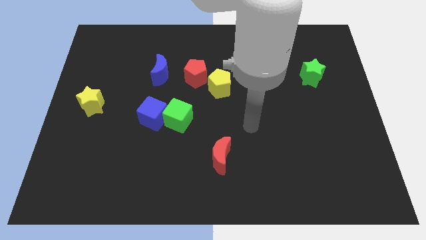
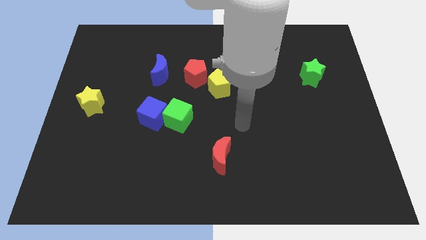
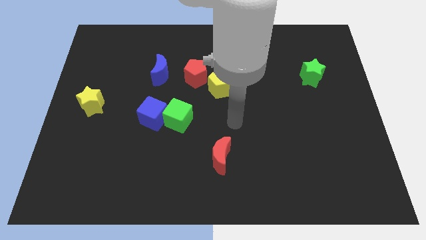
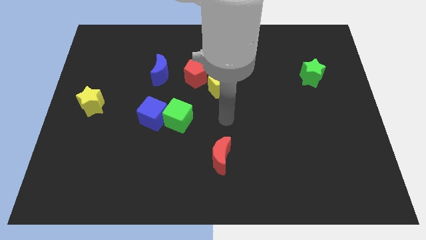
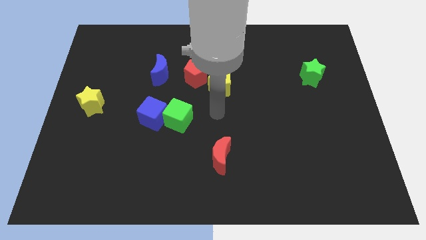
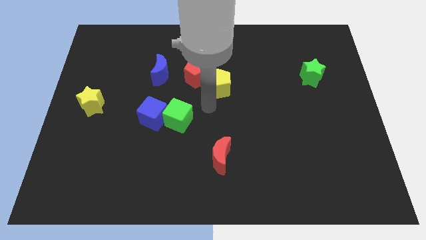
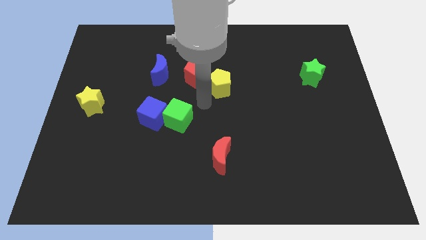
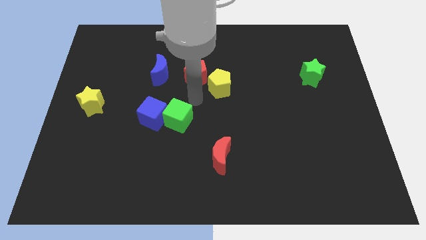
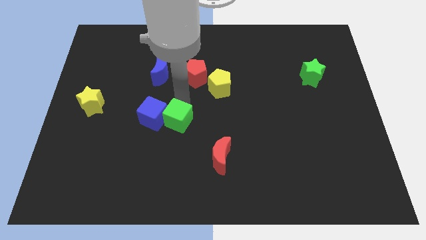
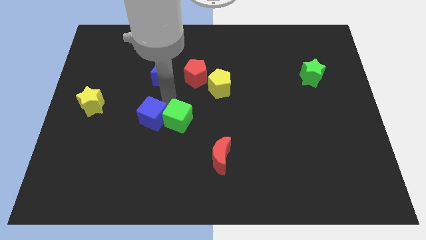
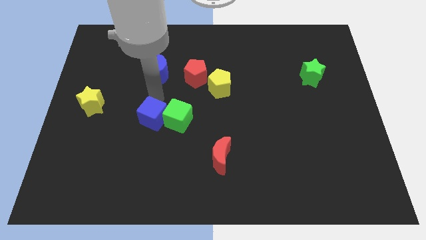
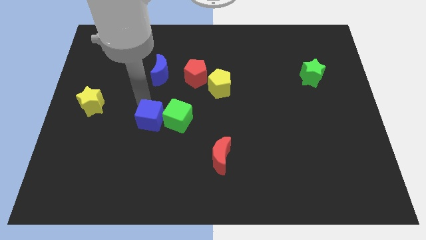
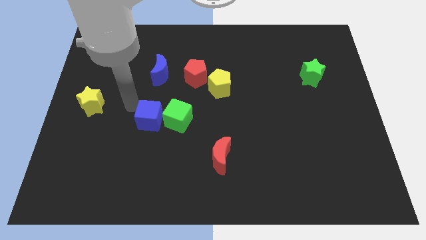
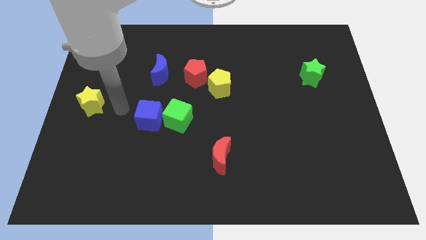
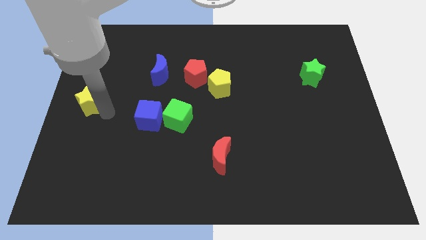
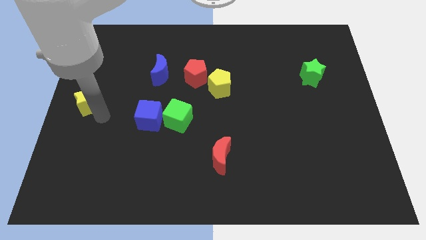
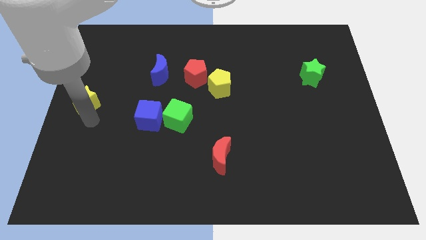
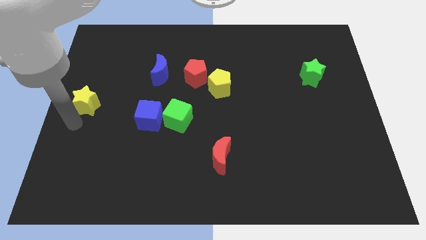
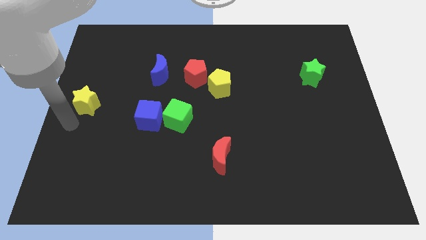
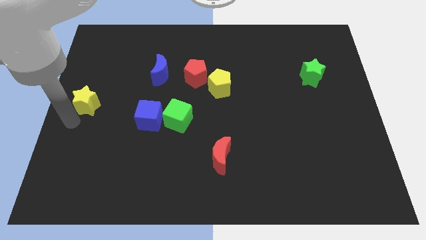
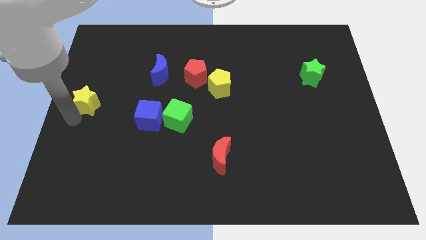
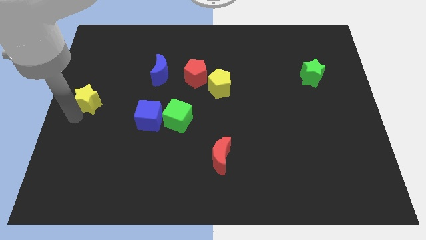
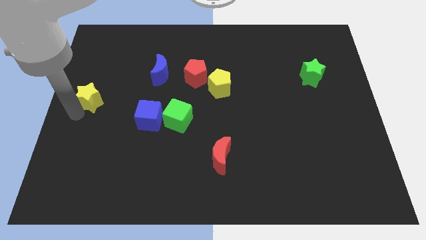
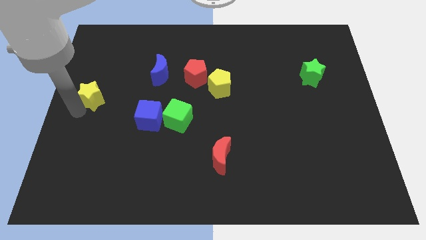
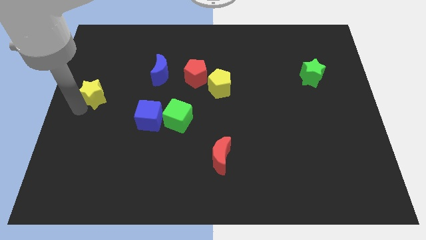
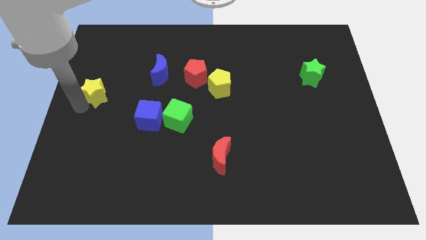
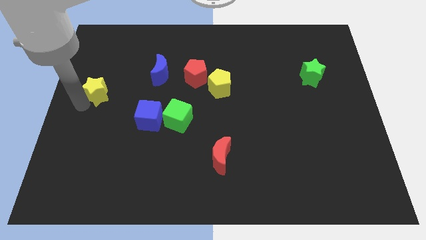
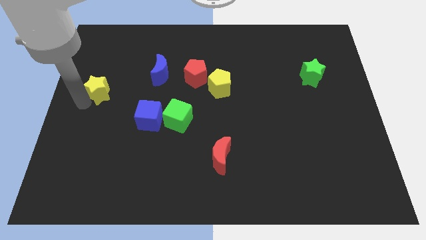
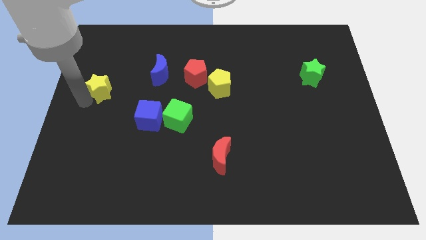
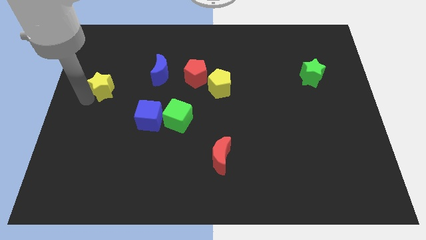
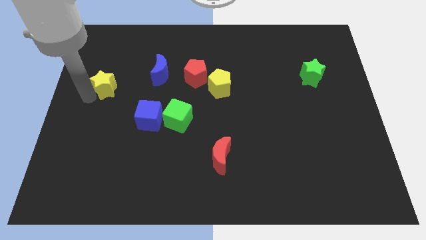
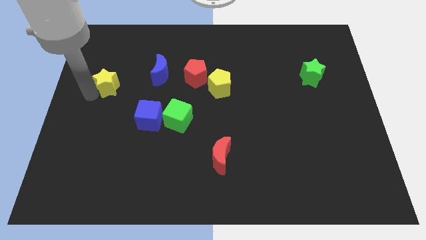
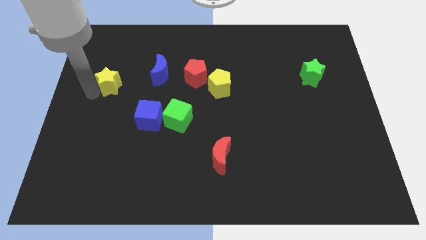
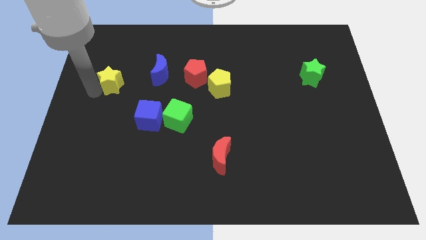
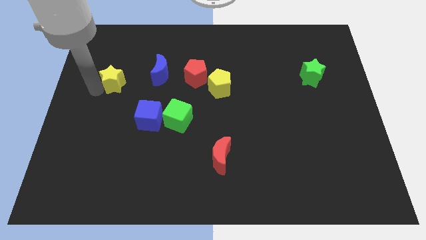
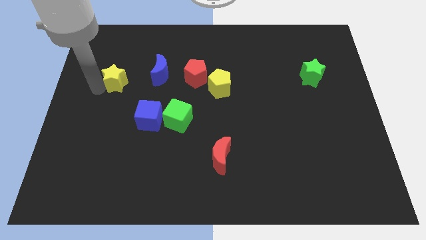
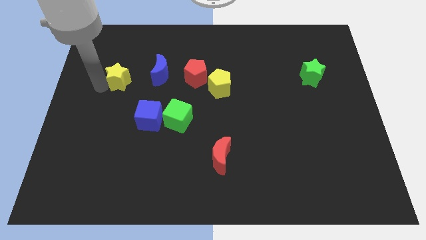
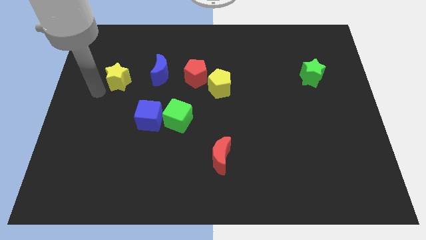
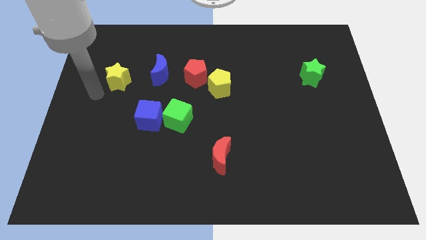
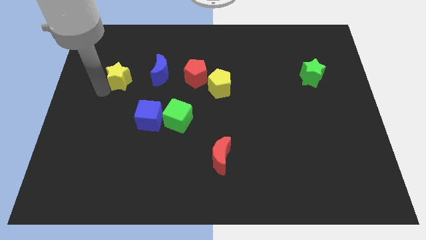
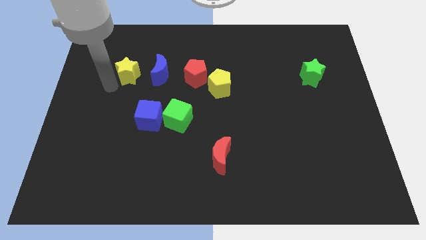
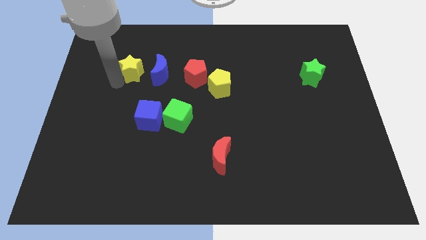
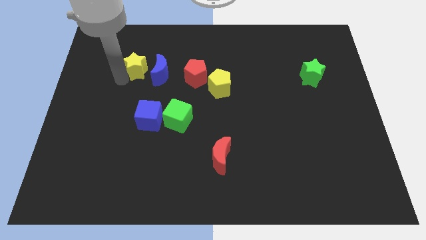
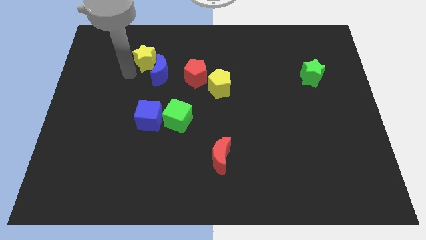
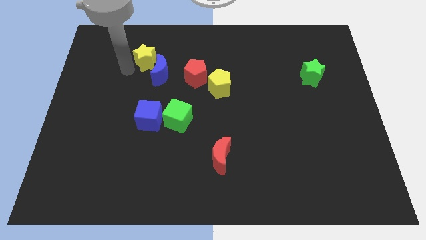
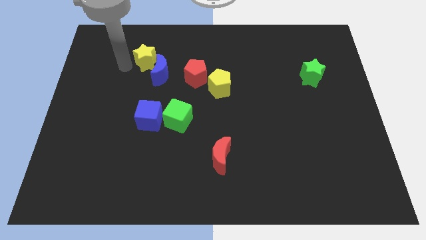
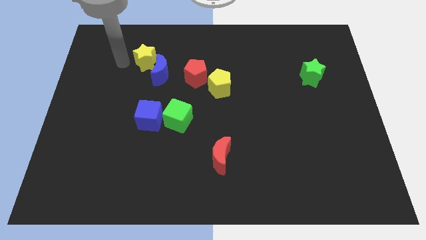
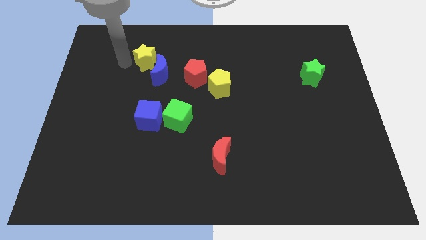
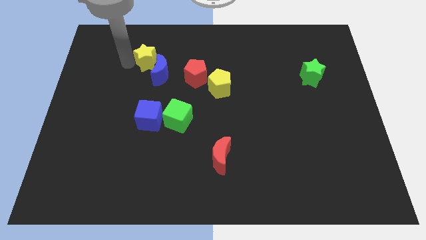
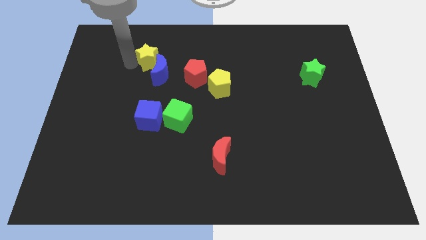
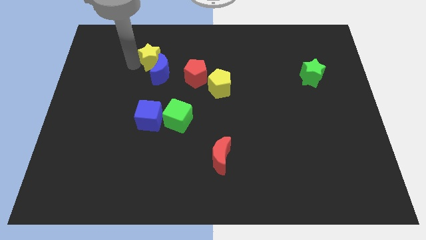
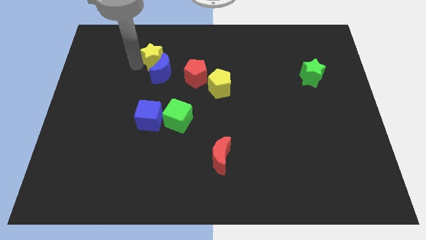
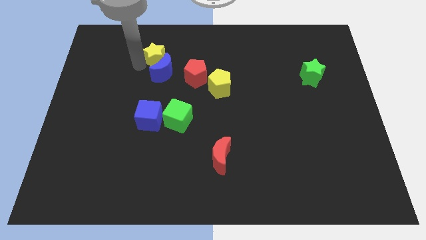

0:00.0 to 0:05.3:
push the yellow star to the top left of the red pentagon

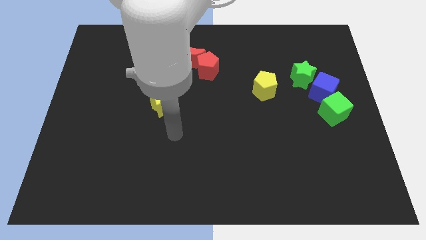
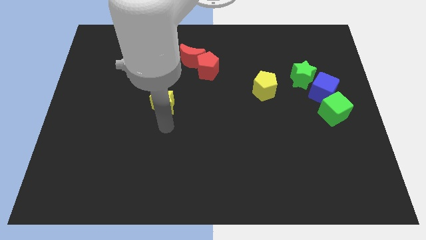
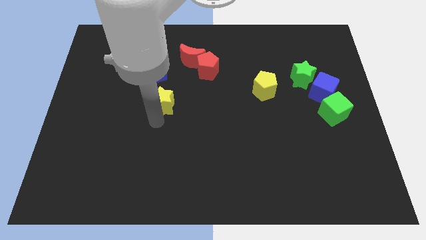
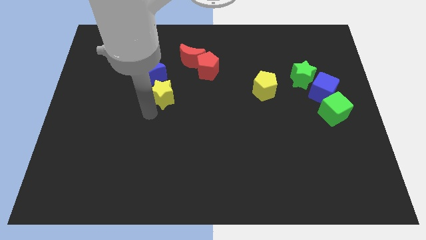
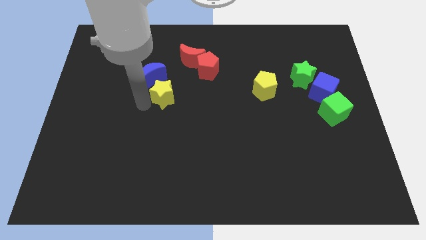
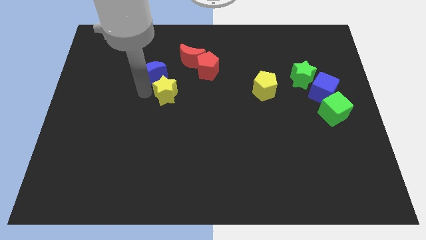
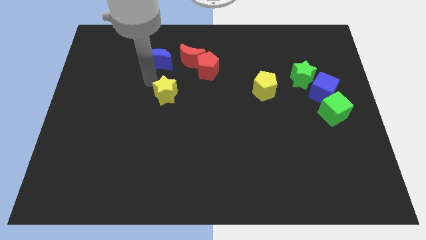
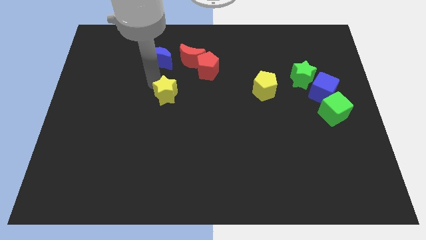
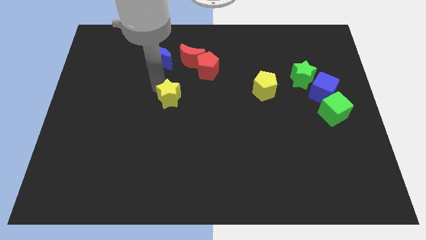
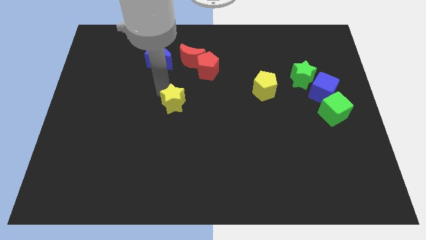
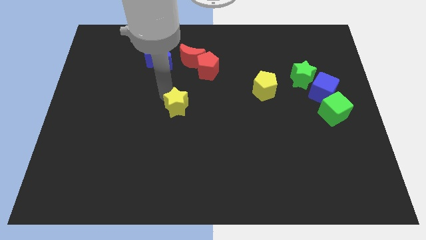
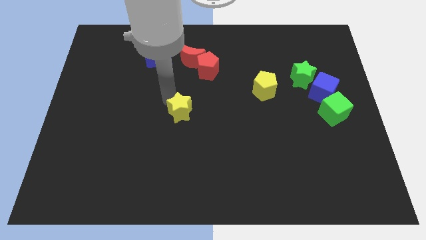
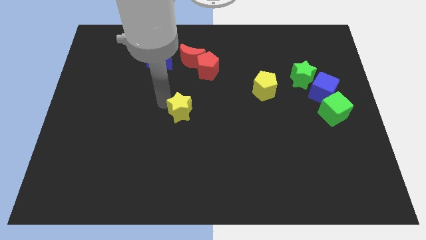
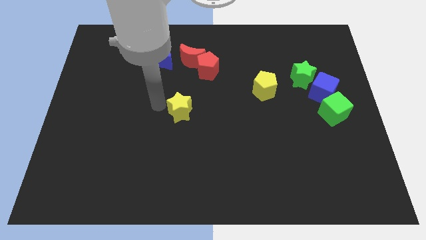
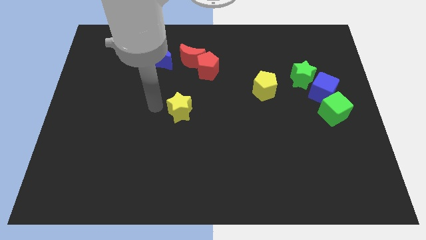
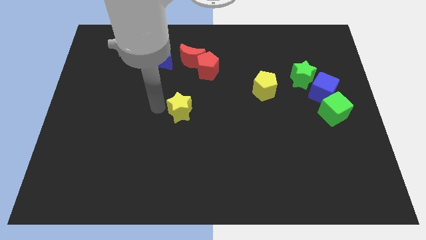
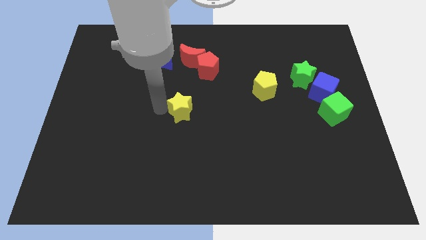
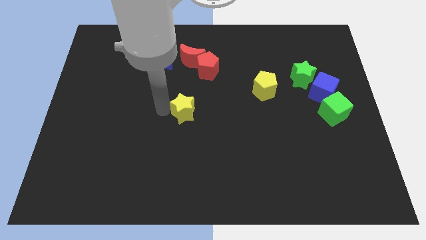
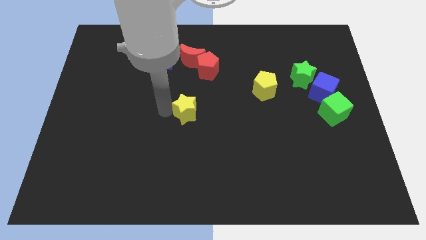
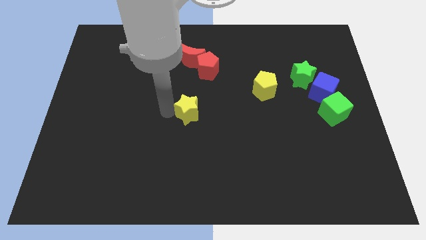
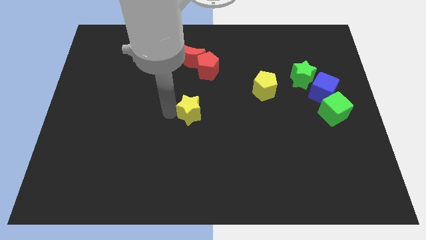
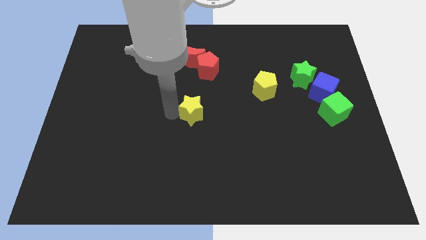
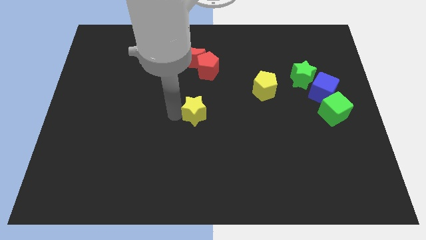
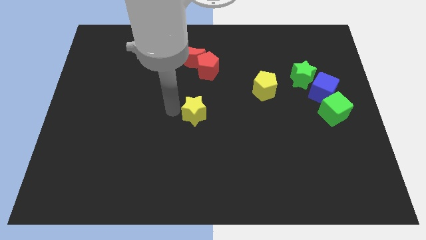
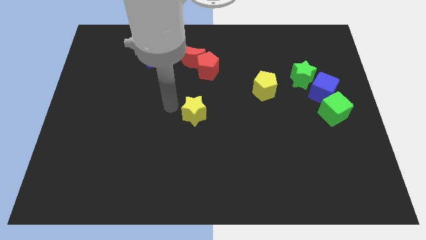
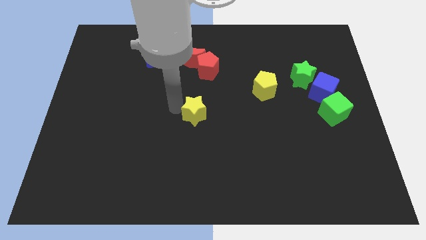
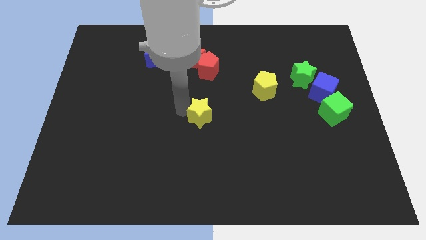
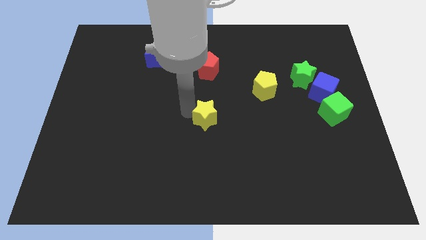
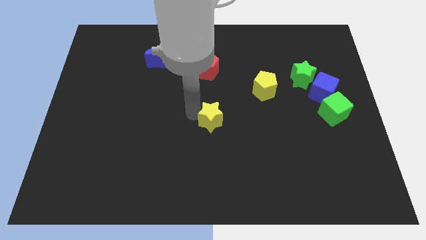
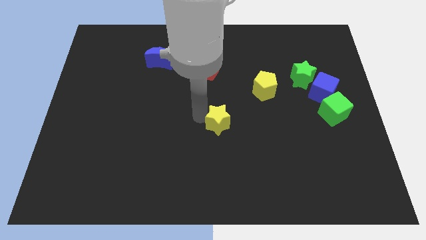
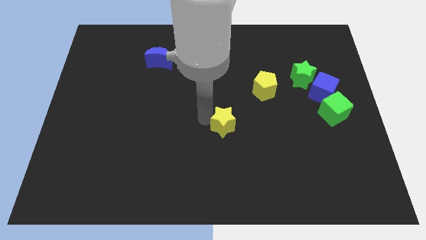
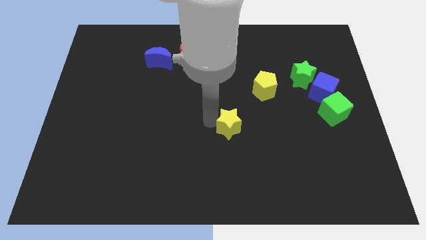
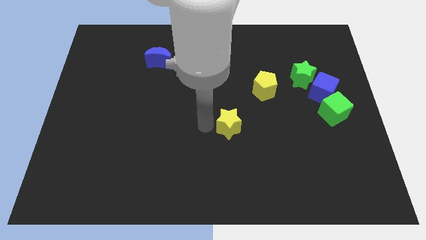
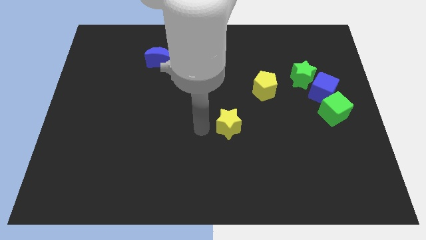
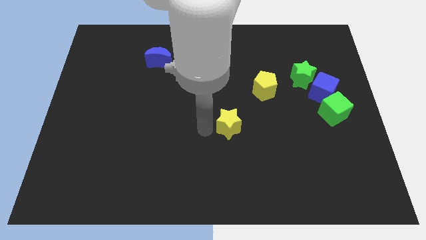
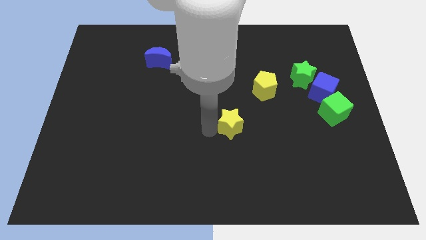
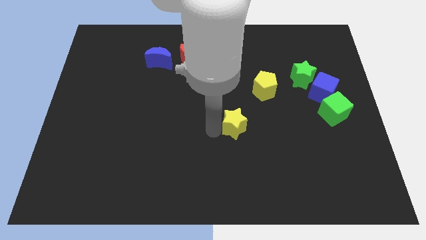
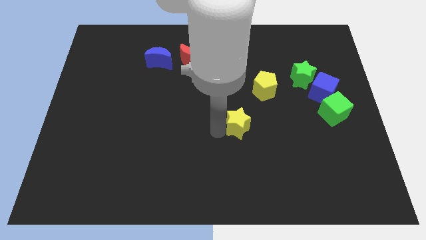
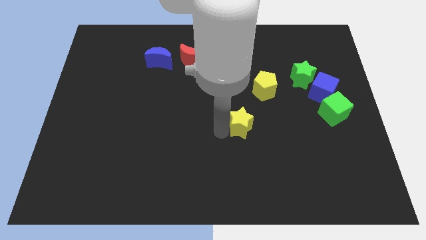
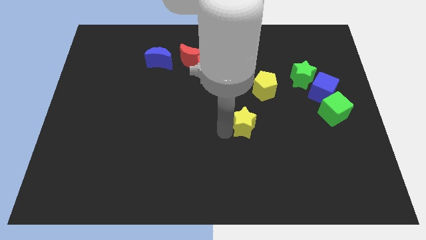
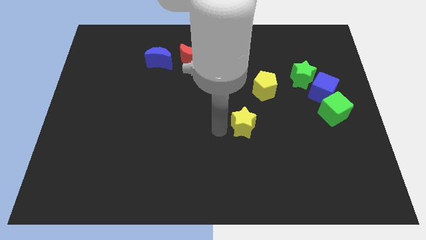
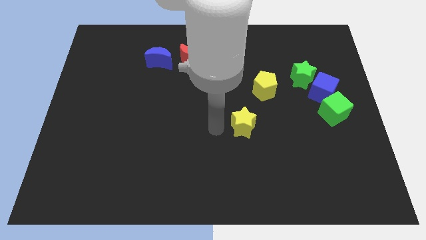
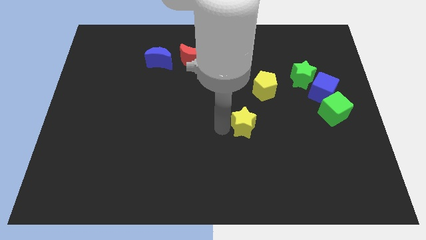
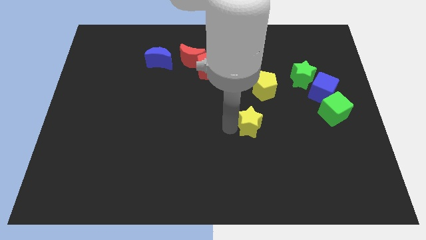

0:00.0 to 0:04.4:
slide the yellow star to the bottom side of the yellow pentagon
